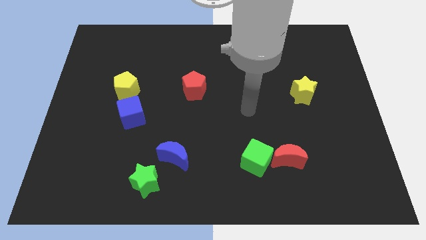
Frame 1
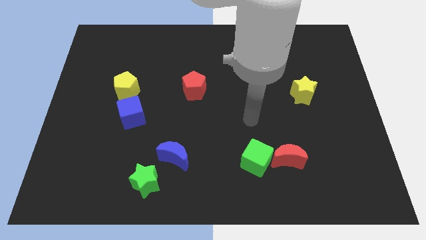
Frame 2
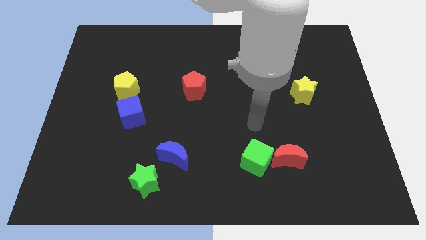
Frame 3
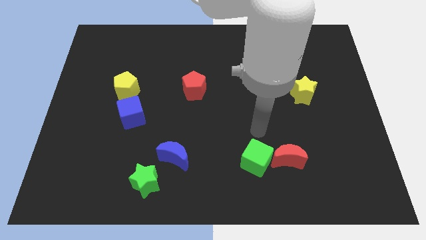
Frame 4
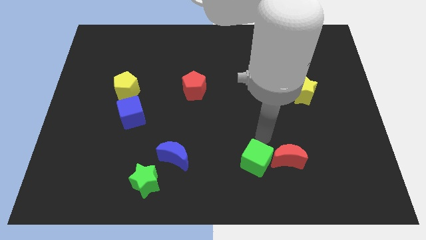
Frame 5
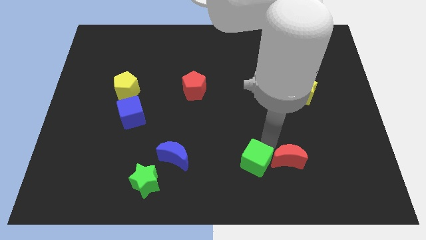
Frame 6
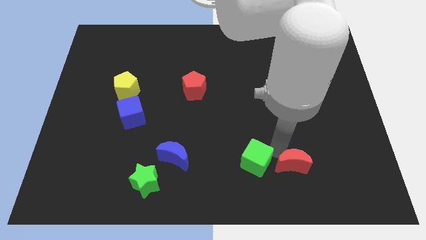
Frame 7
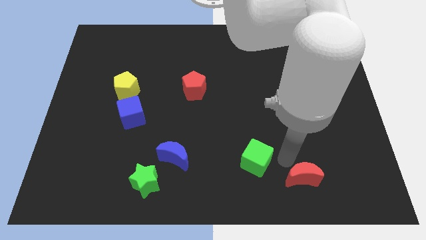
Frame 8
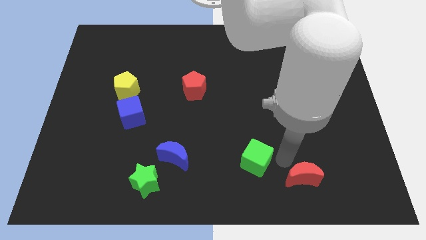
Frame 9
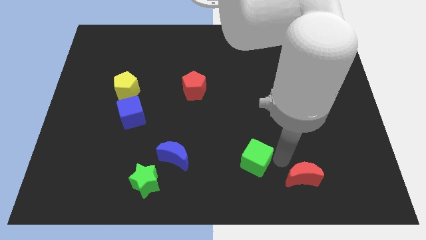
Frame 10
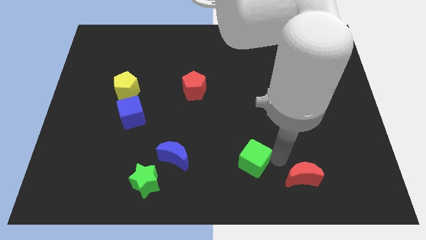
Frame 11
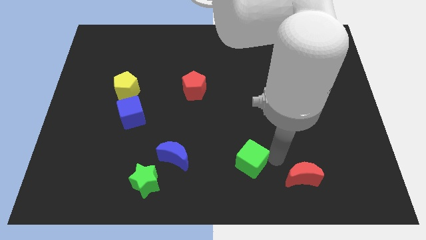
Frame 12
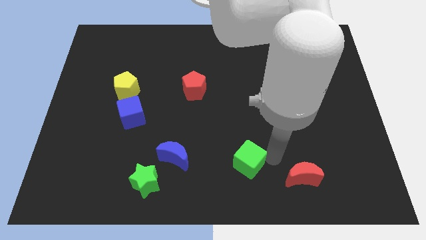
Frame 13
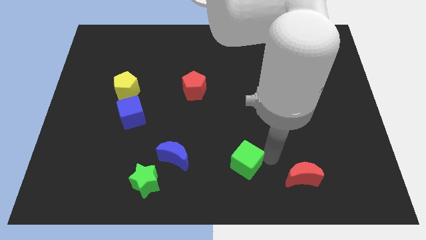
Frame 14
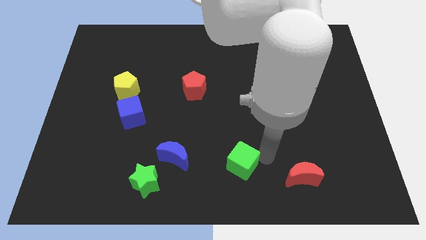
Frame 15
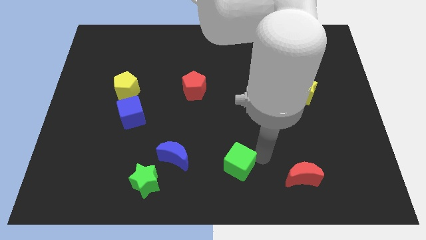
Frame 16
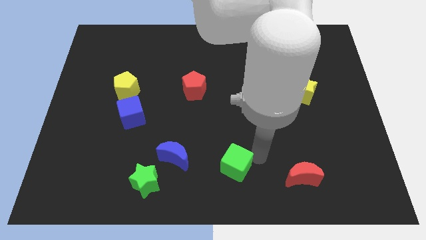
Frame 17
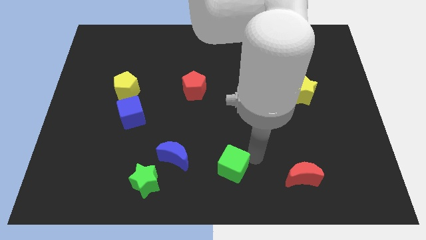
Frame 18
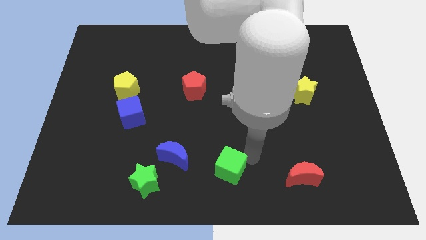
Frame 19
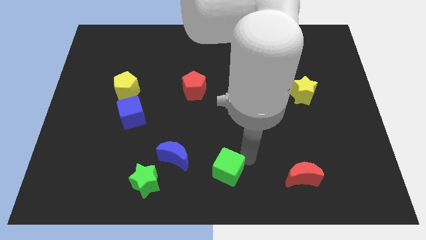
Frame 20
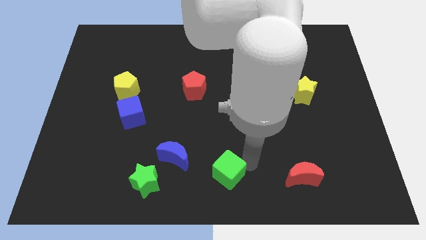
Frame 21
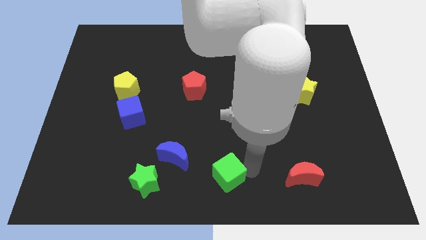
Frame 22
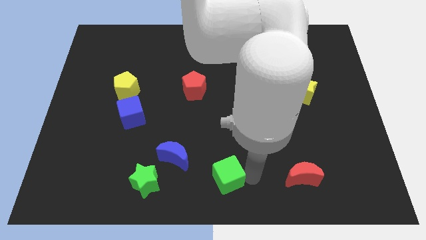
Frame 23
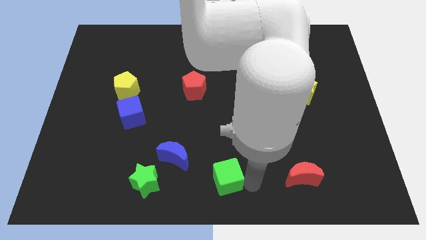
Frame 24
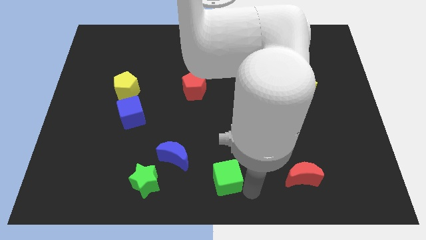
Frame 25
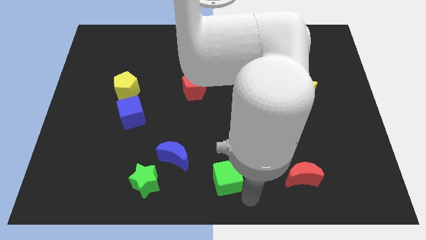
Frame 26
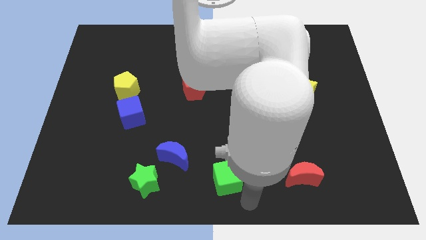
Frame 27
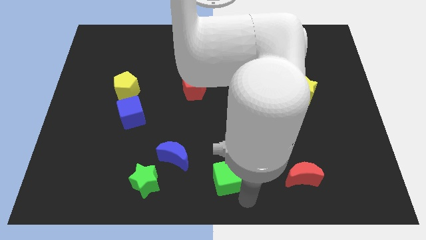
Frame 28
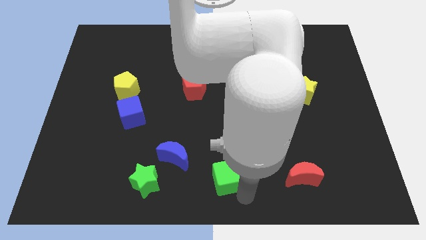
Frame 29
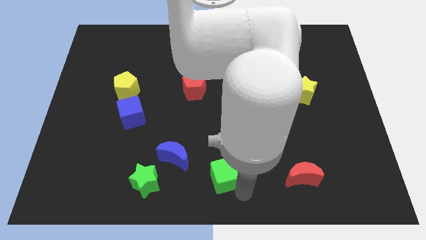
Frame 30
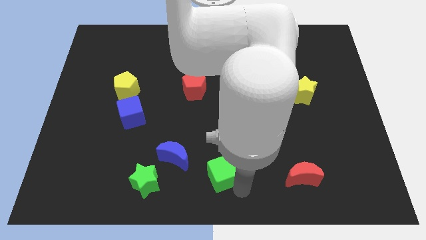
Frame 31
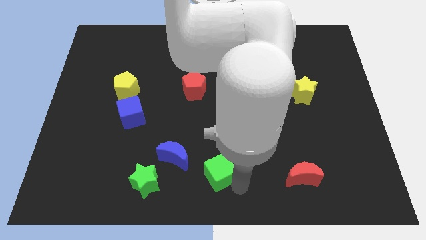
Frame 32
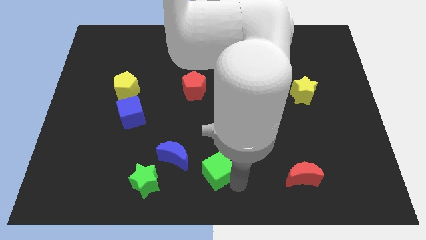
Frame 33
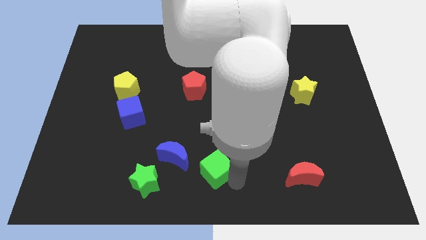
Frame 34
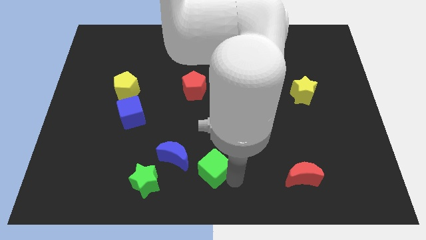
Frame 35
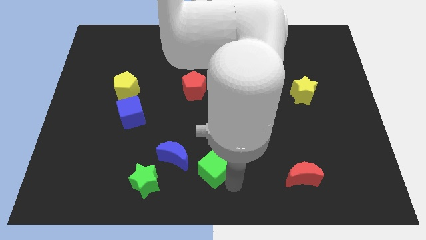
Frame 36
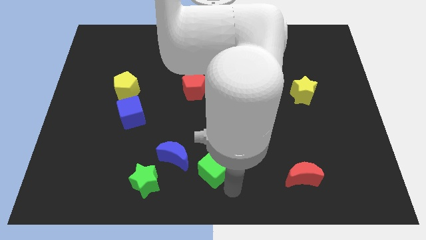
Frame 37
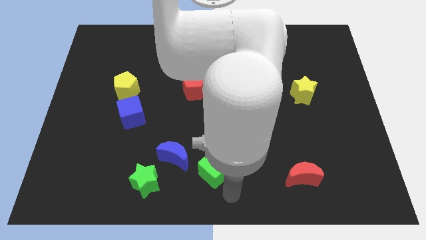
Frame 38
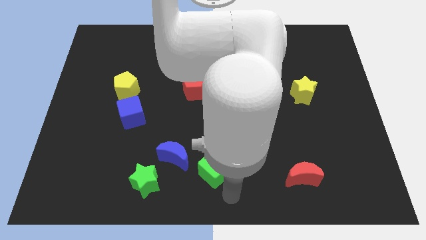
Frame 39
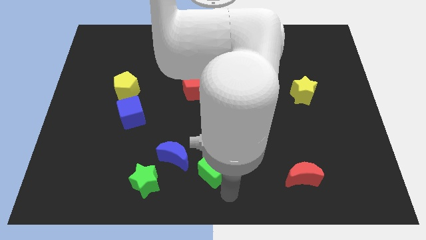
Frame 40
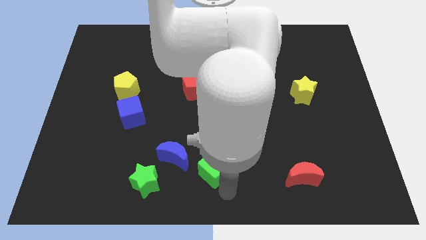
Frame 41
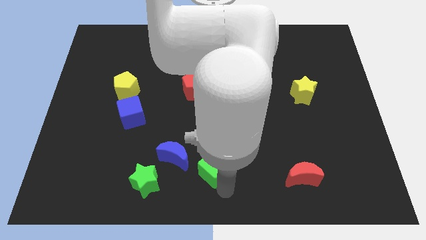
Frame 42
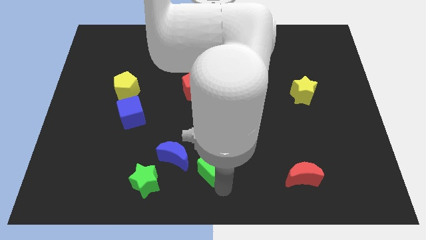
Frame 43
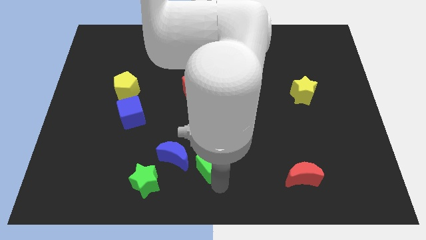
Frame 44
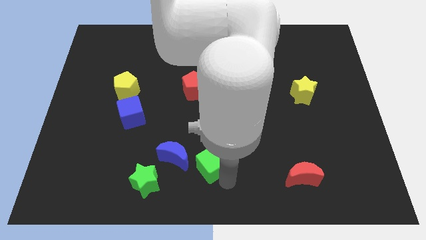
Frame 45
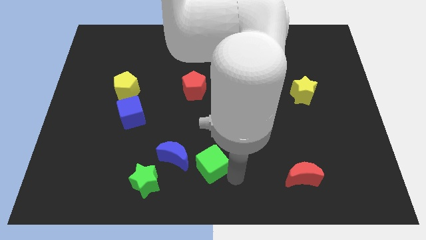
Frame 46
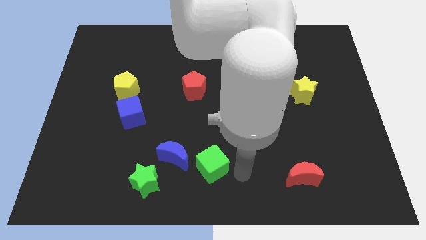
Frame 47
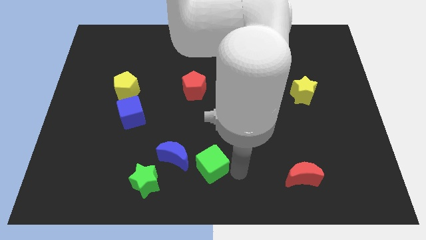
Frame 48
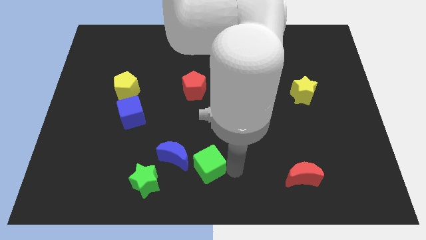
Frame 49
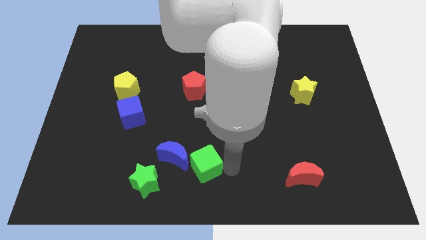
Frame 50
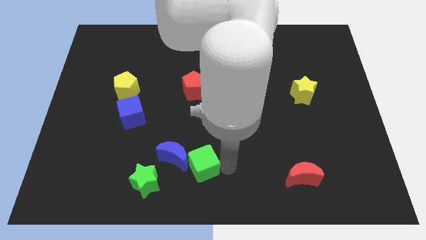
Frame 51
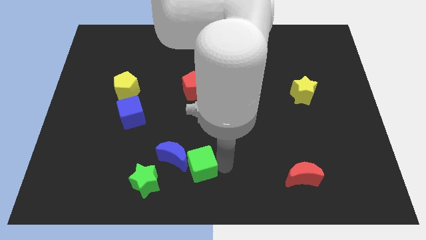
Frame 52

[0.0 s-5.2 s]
push the green cube towards the blue moon

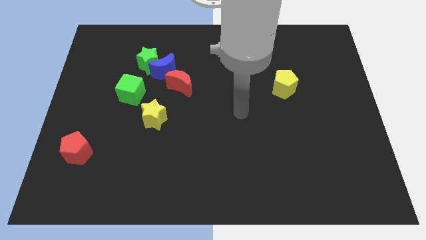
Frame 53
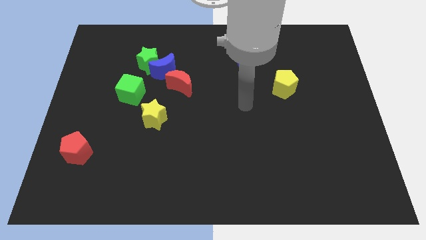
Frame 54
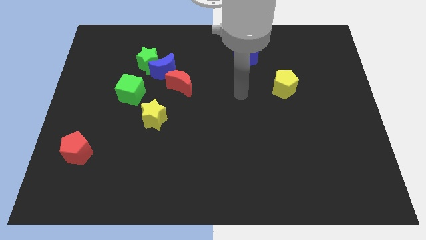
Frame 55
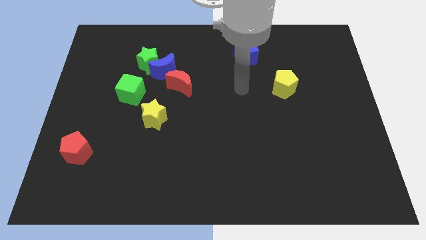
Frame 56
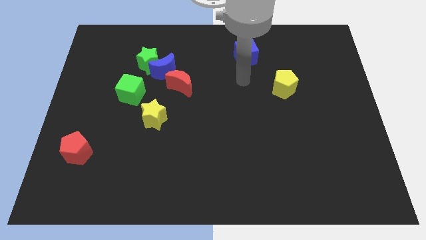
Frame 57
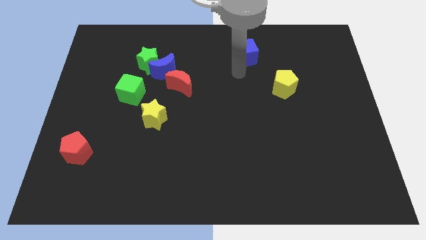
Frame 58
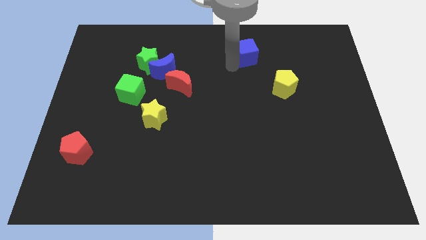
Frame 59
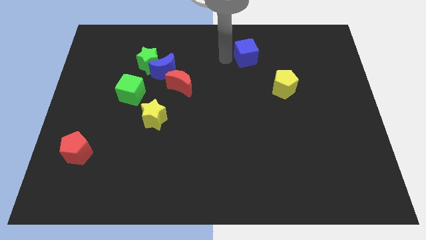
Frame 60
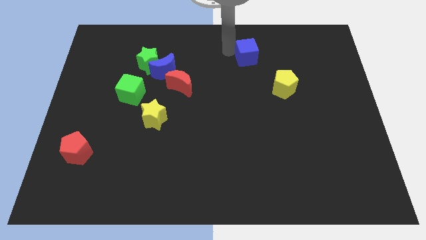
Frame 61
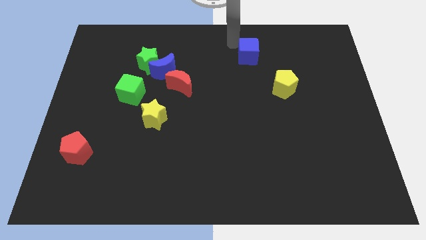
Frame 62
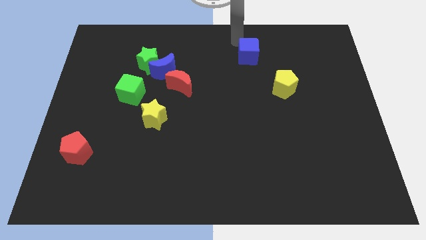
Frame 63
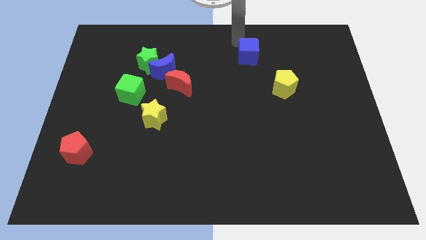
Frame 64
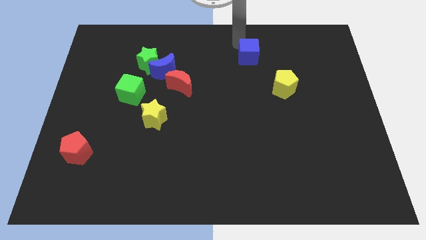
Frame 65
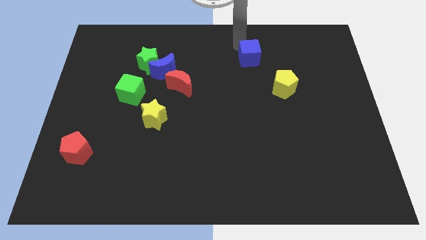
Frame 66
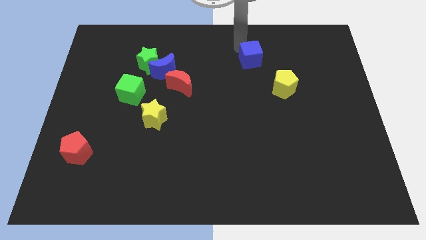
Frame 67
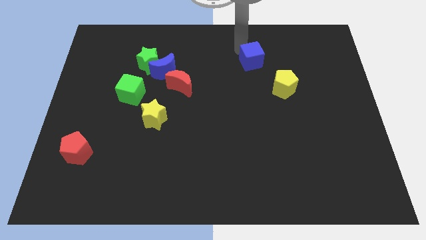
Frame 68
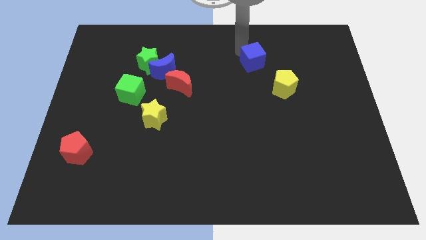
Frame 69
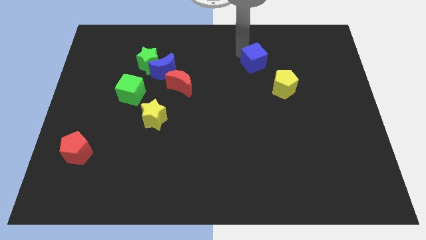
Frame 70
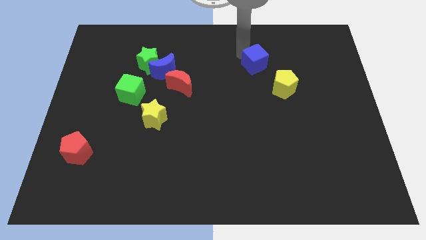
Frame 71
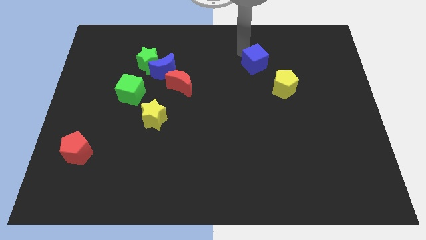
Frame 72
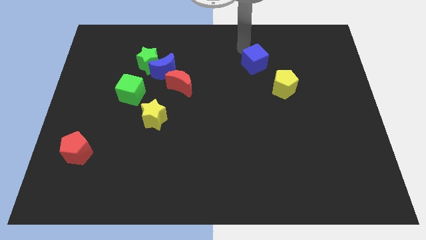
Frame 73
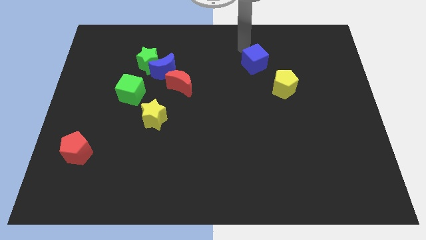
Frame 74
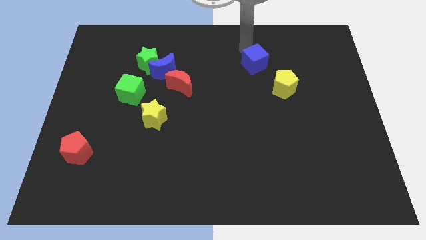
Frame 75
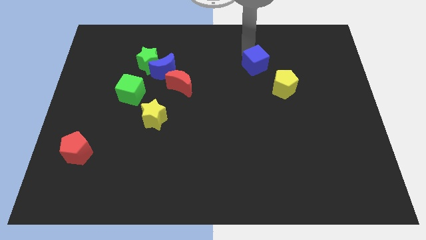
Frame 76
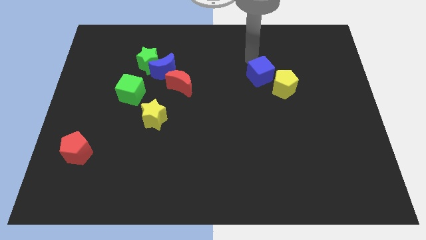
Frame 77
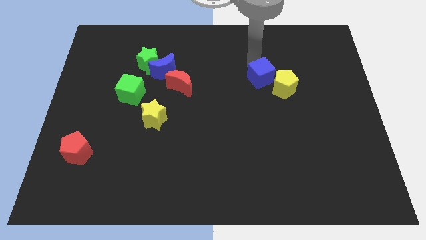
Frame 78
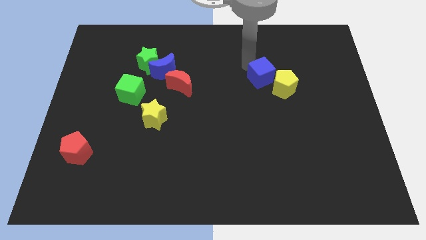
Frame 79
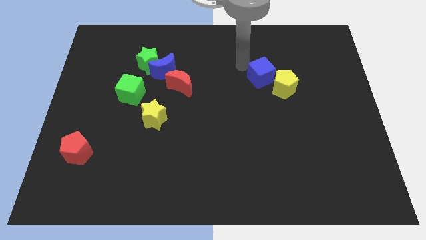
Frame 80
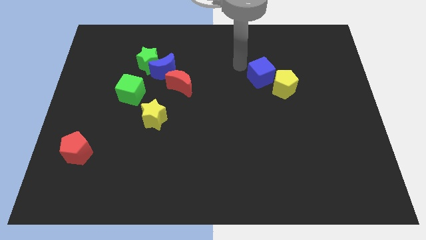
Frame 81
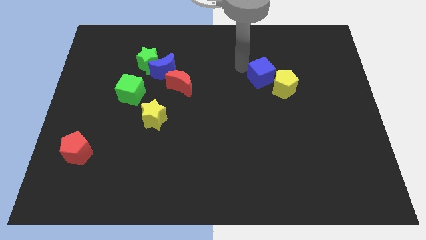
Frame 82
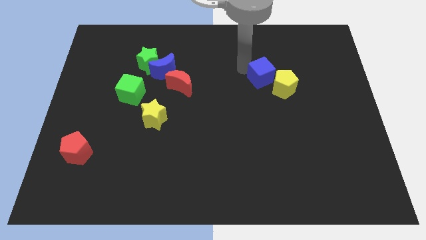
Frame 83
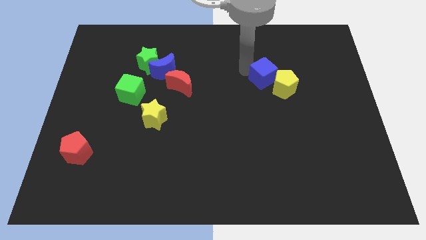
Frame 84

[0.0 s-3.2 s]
move the blue cube close to the yellow pentagon
